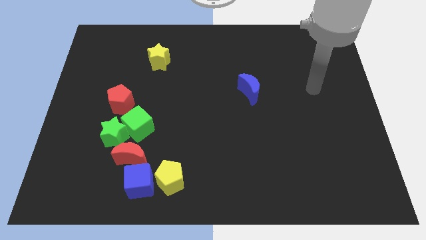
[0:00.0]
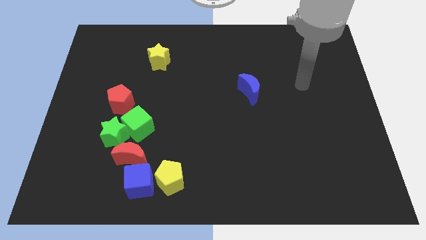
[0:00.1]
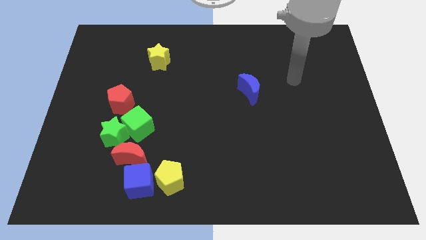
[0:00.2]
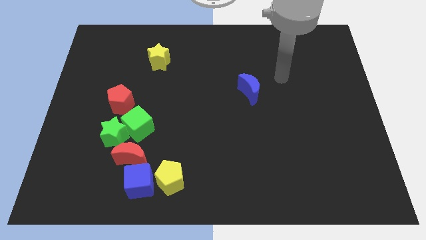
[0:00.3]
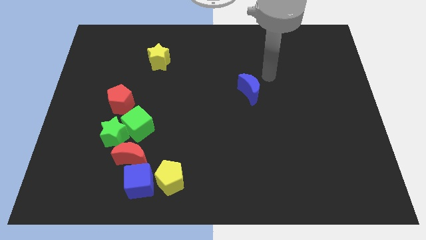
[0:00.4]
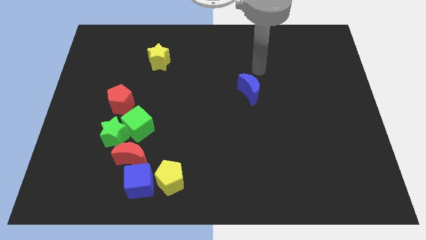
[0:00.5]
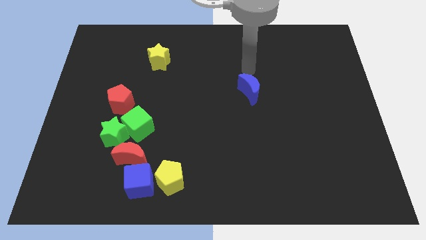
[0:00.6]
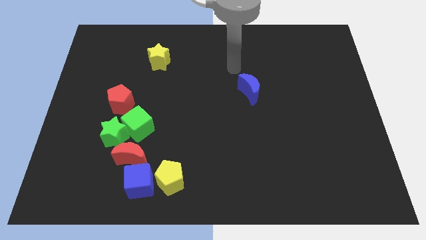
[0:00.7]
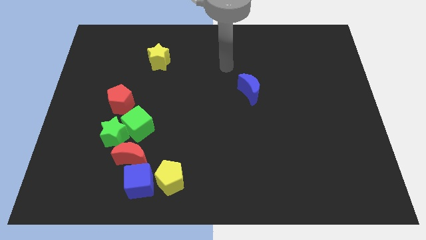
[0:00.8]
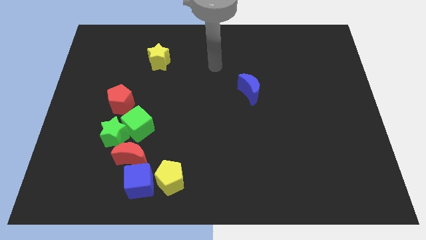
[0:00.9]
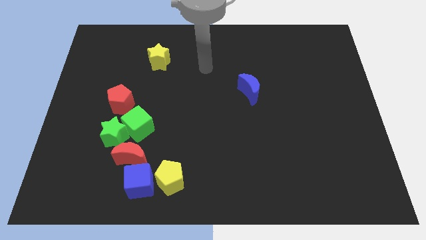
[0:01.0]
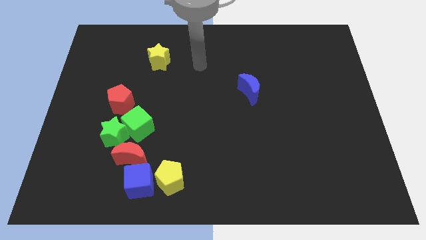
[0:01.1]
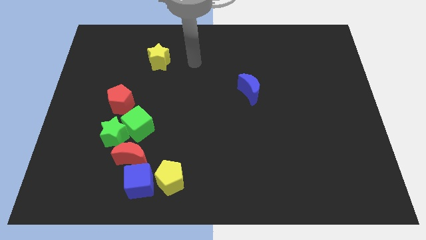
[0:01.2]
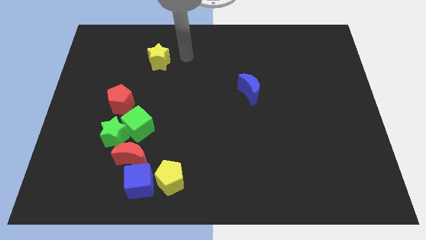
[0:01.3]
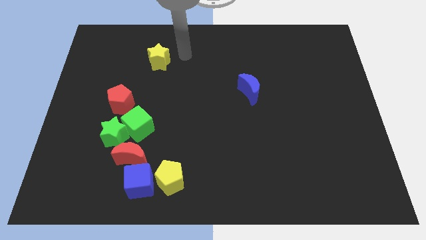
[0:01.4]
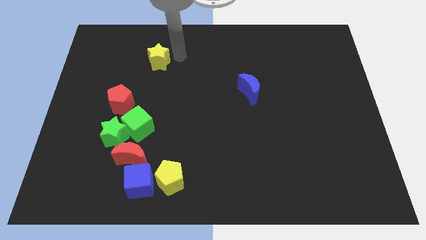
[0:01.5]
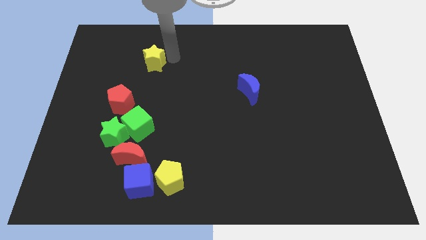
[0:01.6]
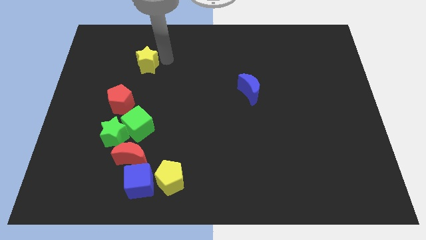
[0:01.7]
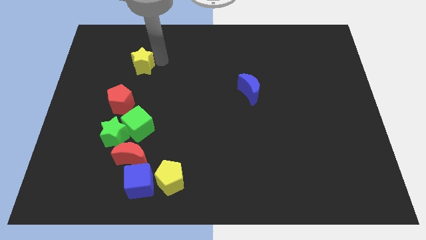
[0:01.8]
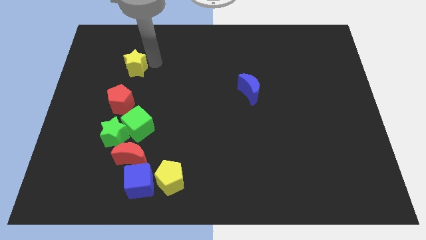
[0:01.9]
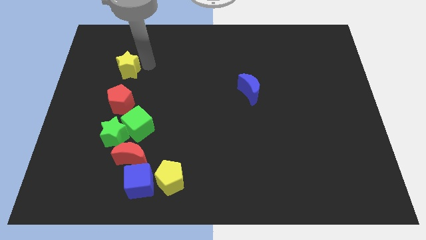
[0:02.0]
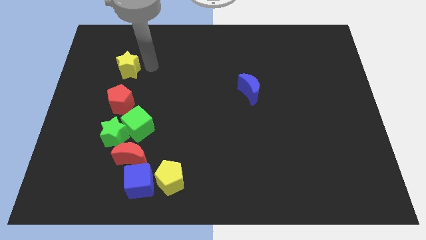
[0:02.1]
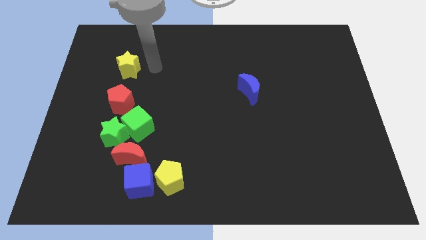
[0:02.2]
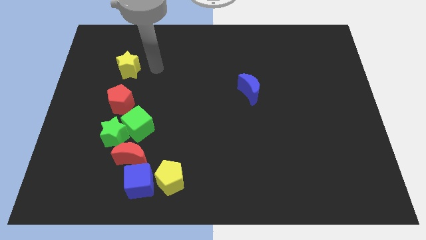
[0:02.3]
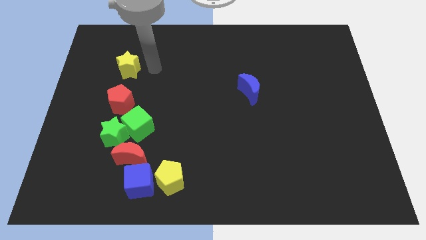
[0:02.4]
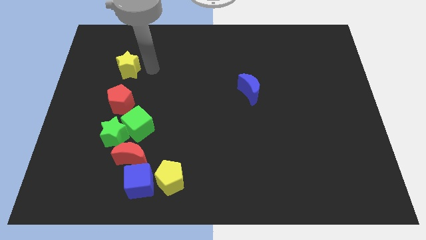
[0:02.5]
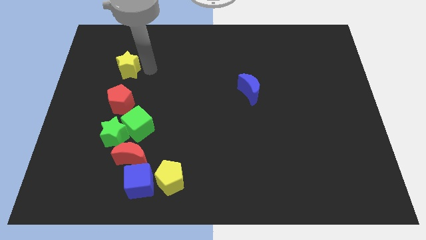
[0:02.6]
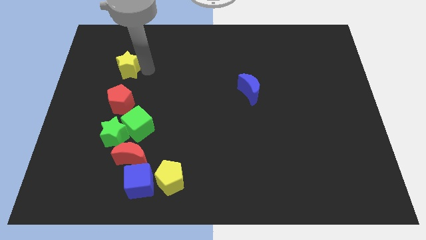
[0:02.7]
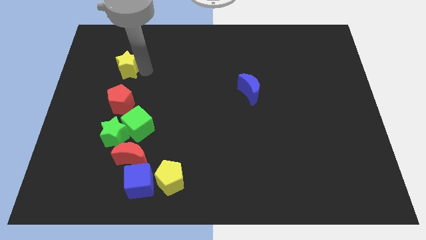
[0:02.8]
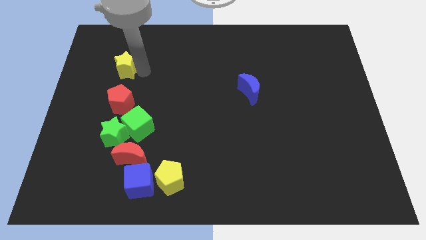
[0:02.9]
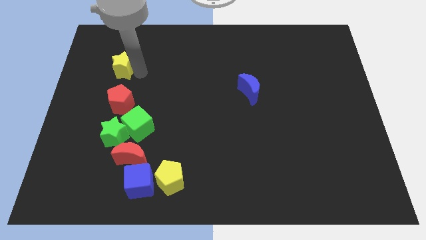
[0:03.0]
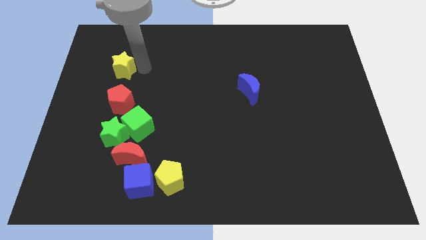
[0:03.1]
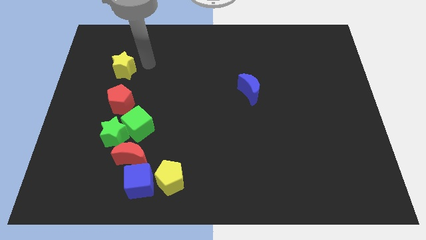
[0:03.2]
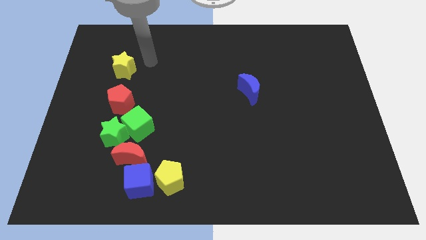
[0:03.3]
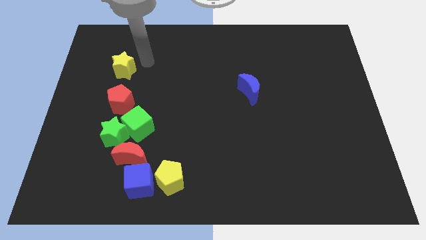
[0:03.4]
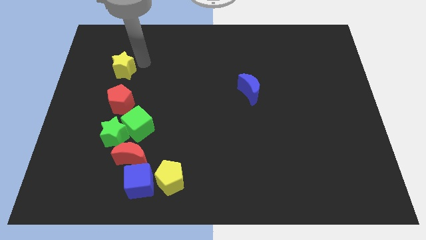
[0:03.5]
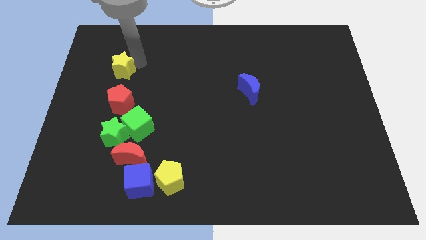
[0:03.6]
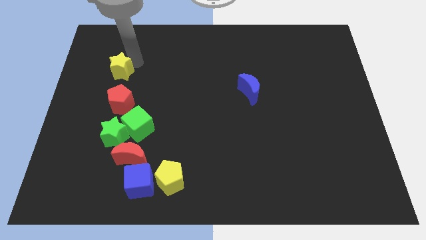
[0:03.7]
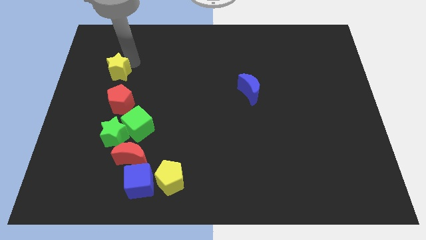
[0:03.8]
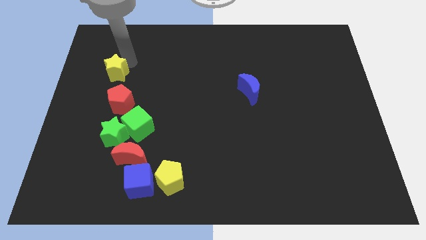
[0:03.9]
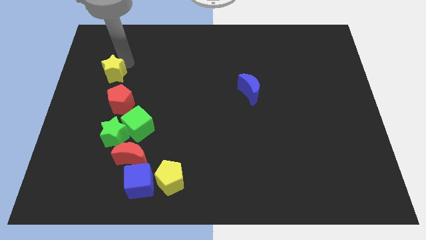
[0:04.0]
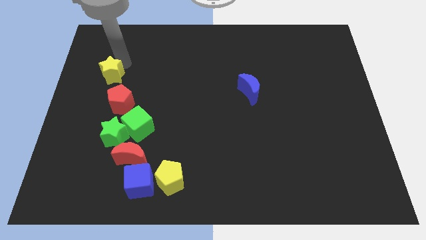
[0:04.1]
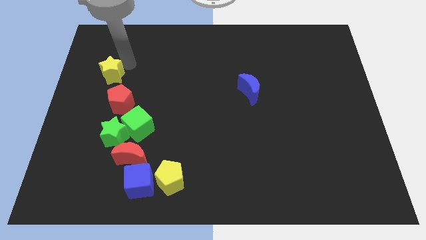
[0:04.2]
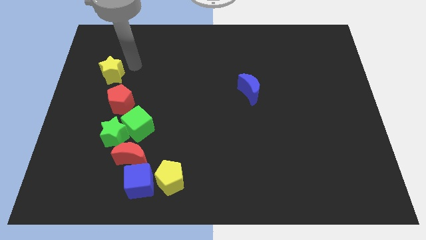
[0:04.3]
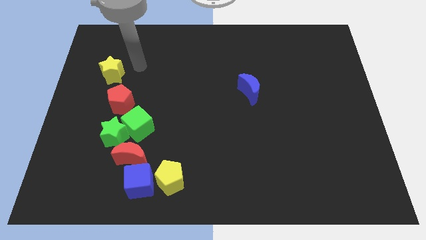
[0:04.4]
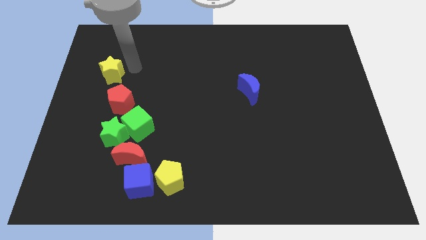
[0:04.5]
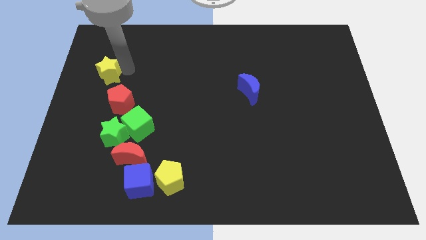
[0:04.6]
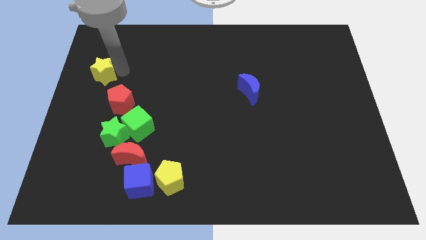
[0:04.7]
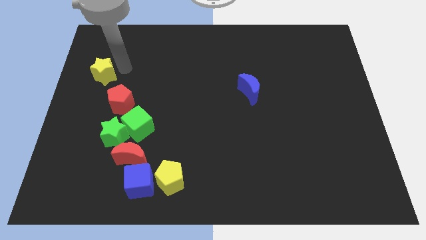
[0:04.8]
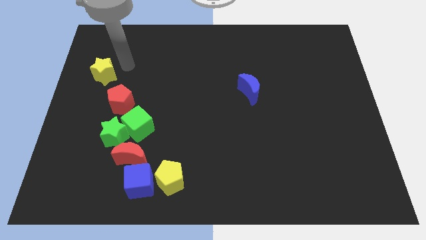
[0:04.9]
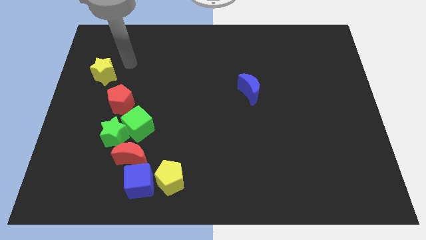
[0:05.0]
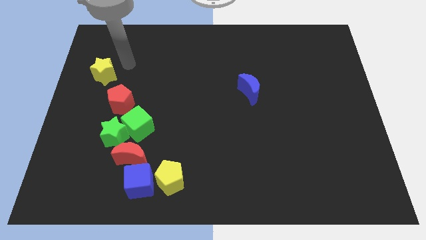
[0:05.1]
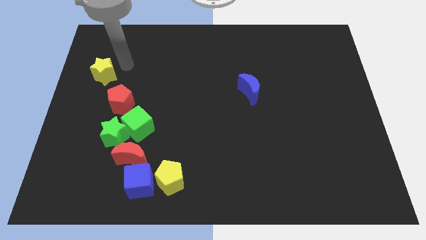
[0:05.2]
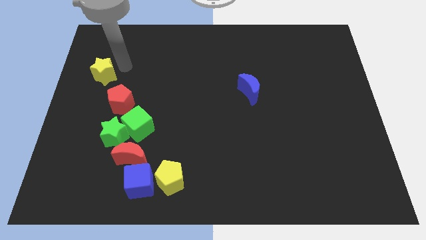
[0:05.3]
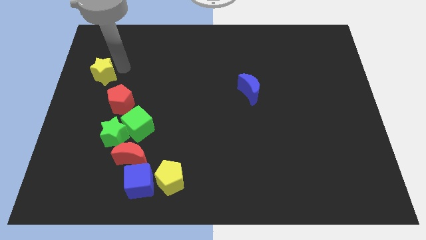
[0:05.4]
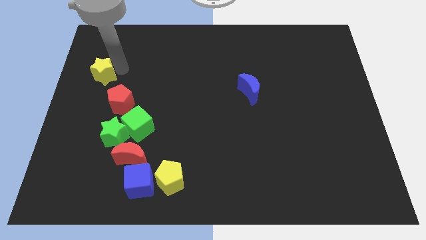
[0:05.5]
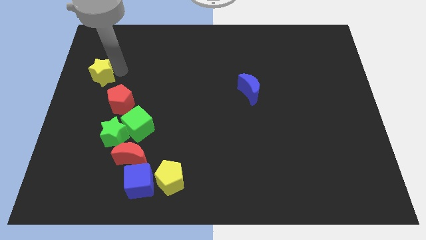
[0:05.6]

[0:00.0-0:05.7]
move the yellow star to the left side of the board

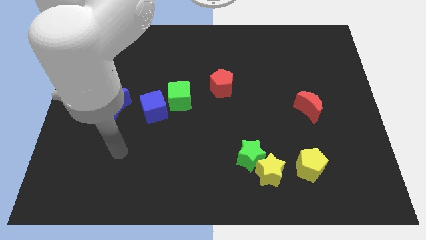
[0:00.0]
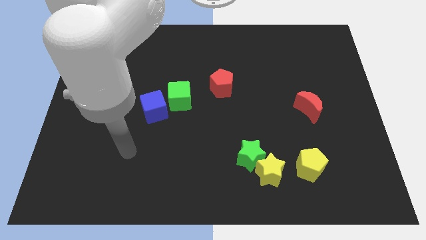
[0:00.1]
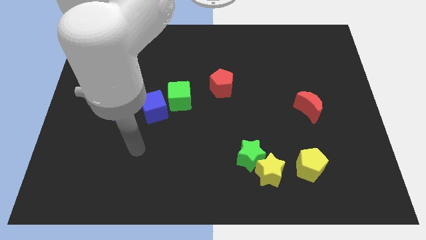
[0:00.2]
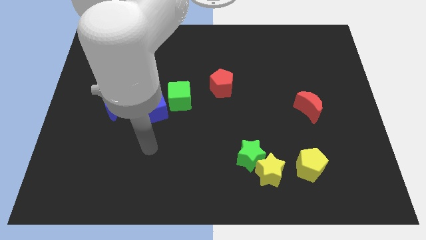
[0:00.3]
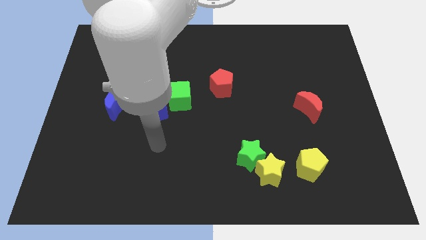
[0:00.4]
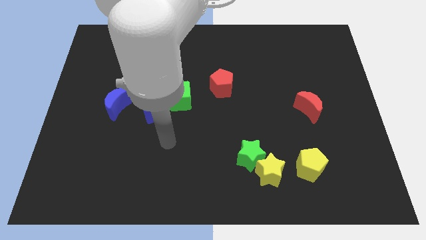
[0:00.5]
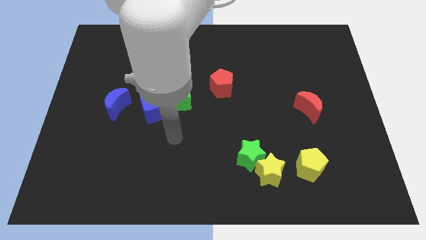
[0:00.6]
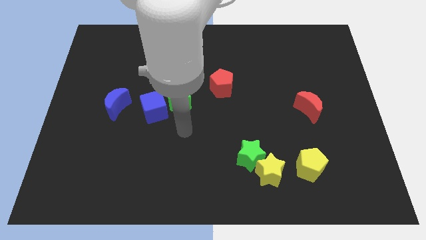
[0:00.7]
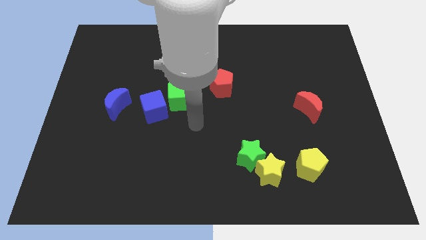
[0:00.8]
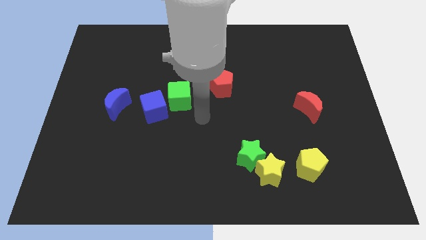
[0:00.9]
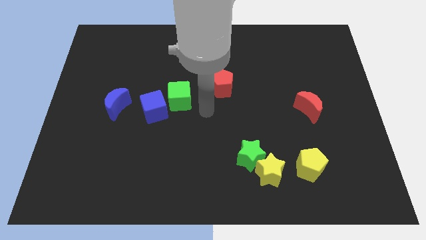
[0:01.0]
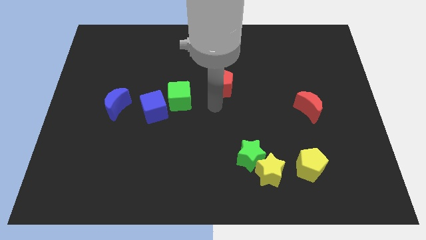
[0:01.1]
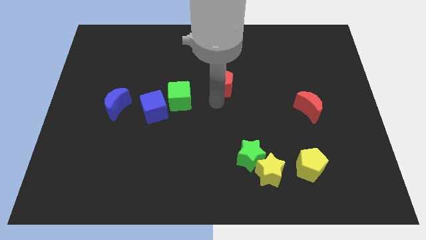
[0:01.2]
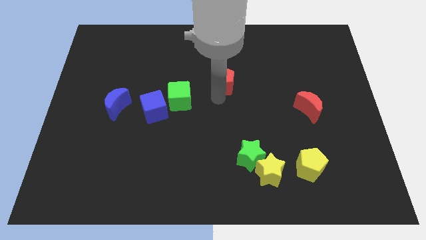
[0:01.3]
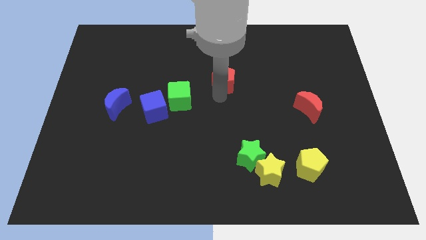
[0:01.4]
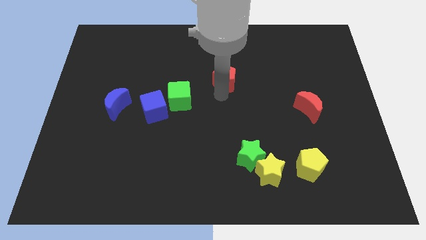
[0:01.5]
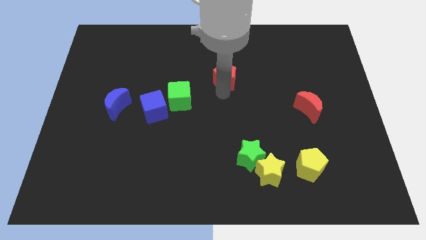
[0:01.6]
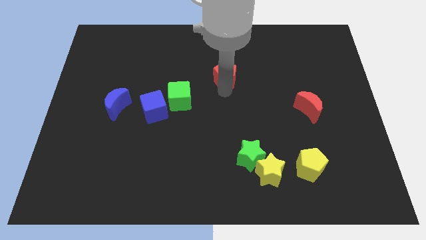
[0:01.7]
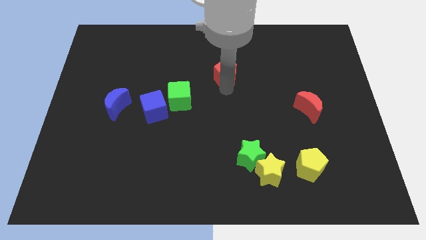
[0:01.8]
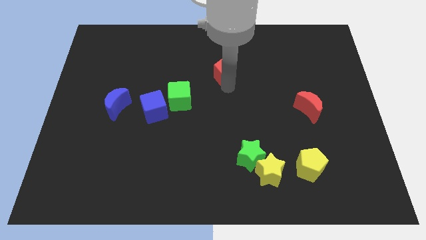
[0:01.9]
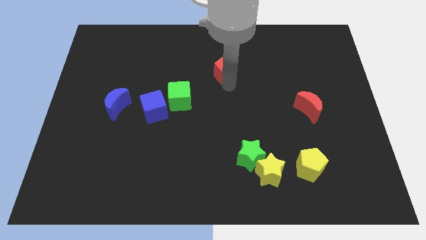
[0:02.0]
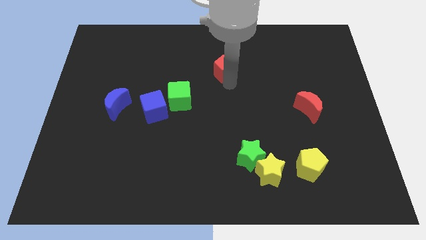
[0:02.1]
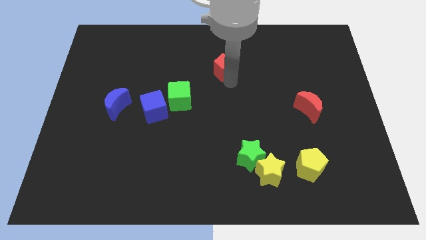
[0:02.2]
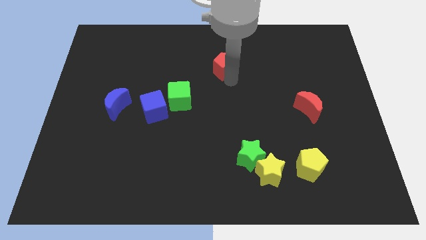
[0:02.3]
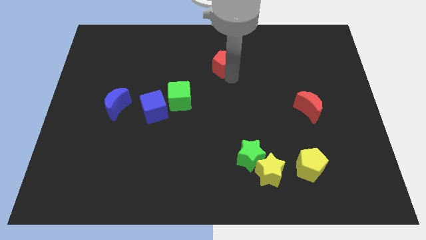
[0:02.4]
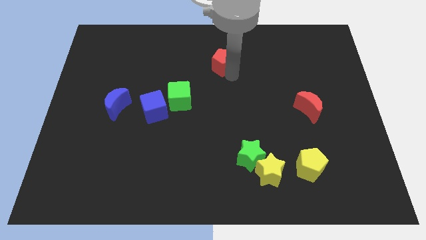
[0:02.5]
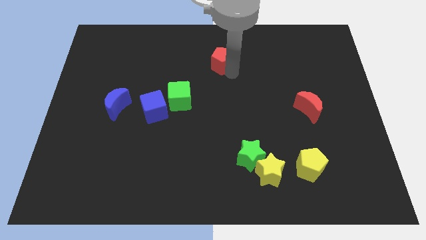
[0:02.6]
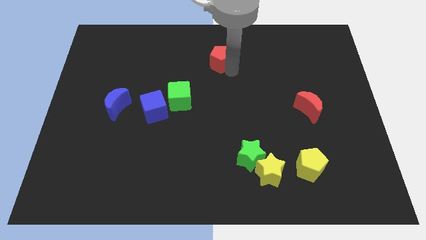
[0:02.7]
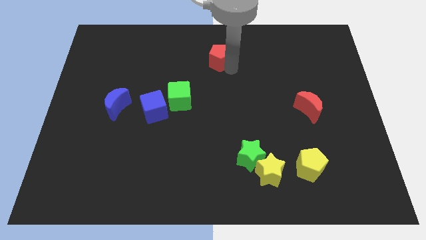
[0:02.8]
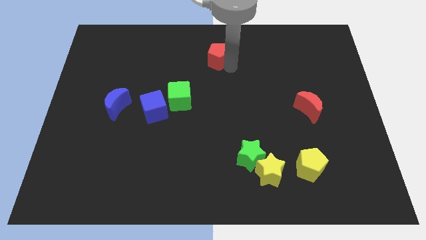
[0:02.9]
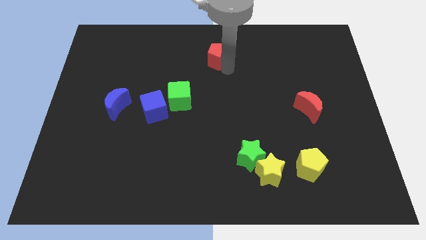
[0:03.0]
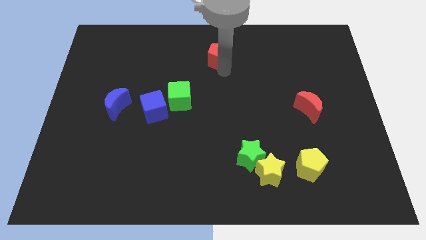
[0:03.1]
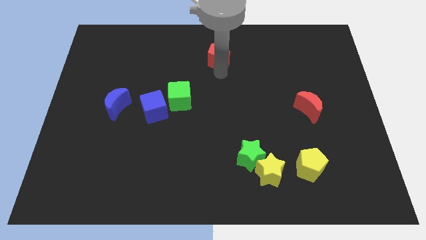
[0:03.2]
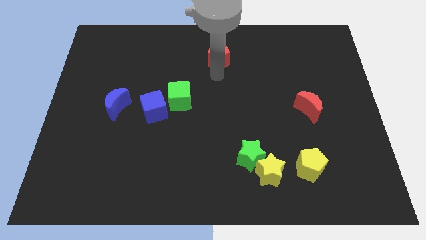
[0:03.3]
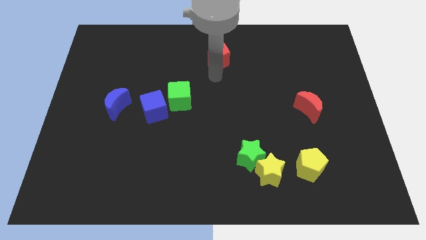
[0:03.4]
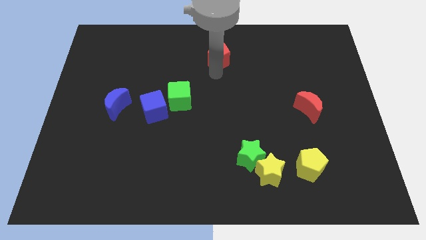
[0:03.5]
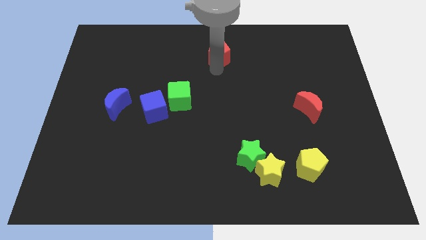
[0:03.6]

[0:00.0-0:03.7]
move the red pentagon to the top side
